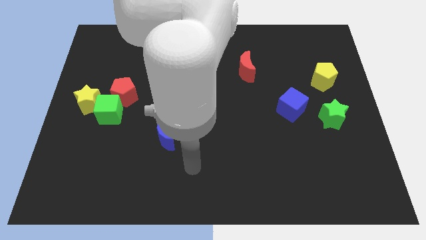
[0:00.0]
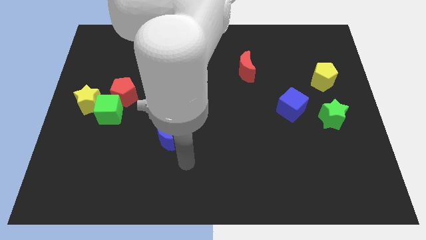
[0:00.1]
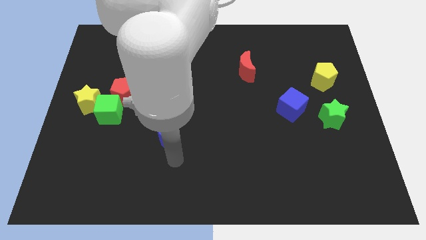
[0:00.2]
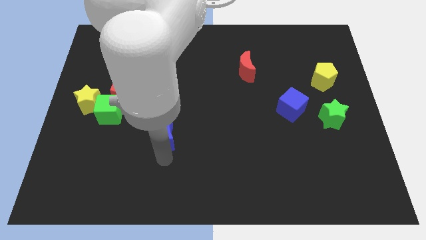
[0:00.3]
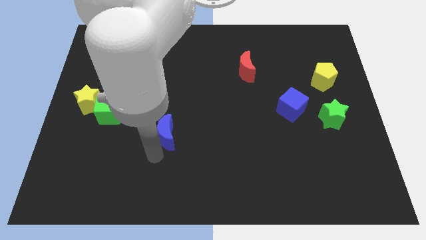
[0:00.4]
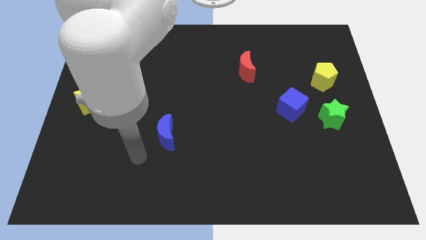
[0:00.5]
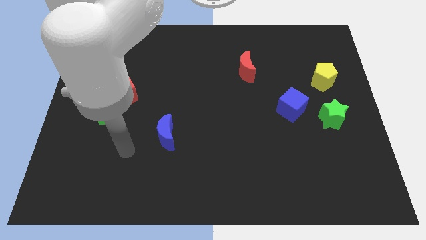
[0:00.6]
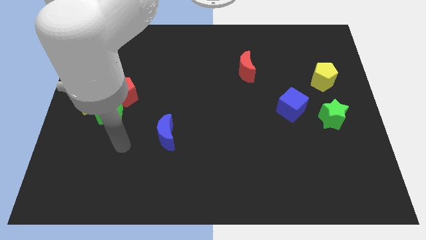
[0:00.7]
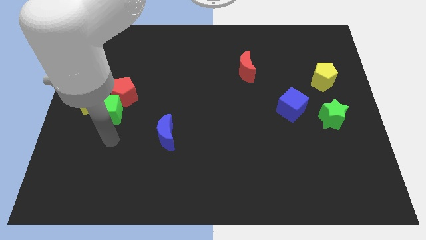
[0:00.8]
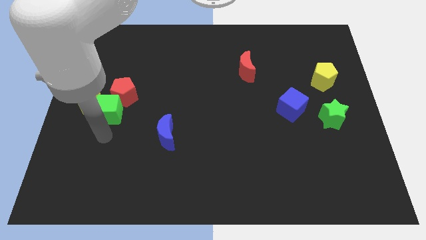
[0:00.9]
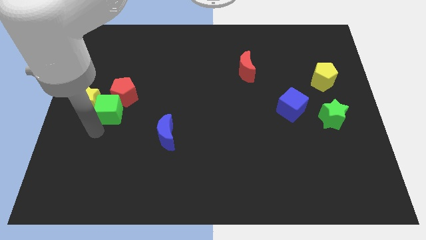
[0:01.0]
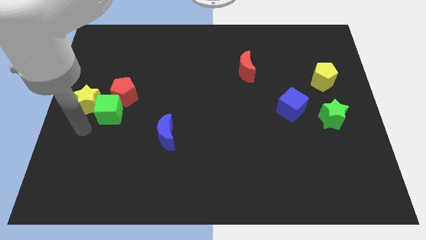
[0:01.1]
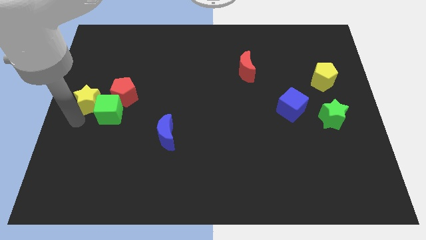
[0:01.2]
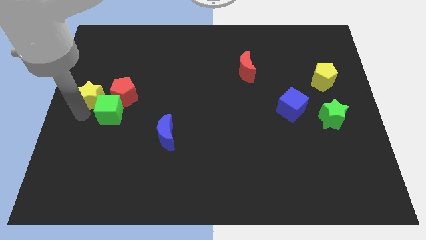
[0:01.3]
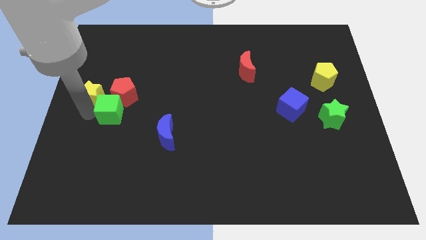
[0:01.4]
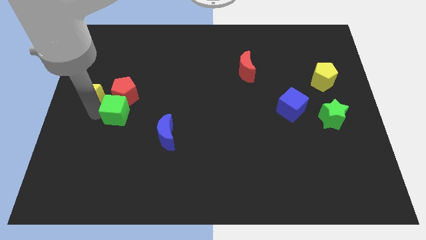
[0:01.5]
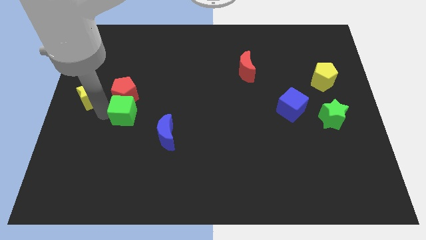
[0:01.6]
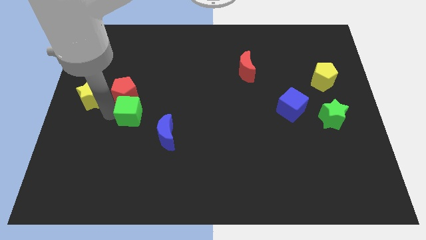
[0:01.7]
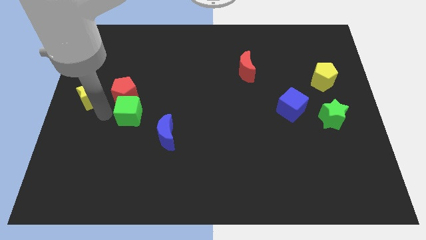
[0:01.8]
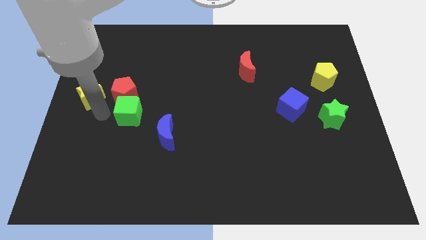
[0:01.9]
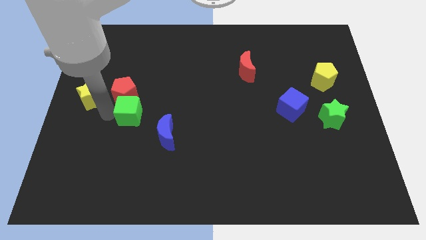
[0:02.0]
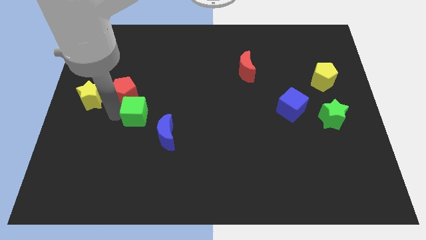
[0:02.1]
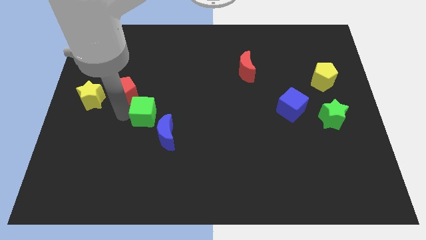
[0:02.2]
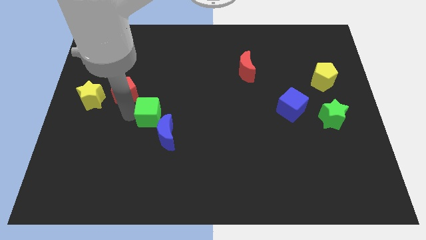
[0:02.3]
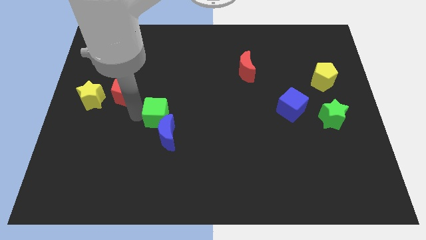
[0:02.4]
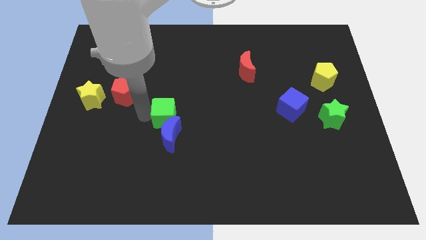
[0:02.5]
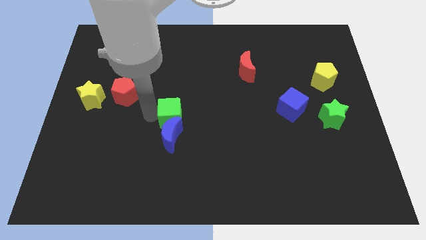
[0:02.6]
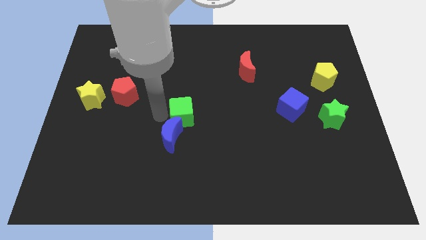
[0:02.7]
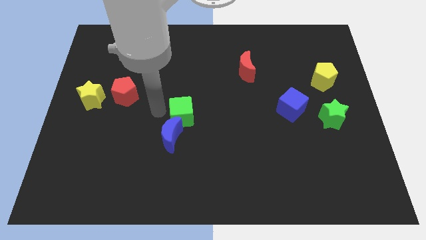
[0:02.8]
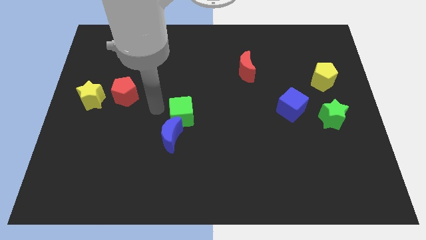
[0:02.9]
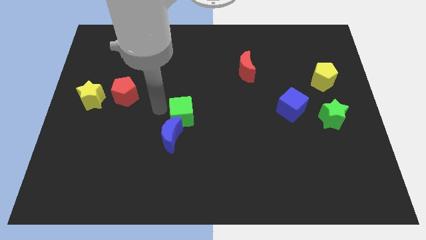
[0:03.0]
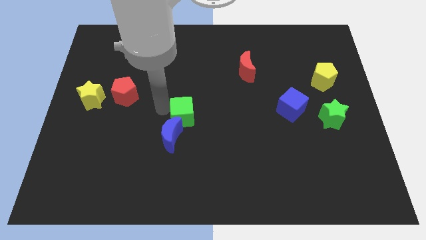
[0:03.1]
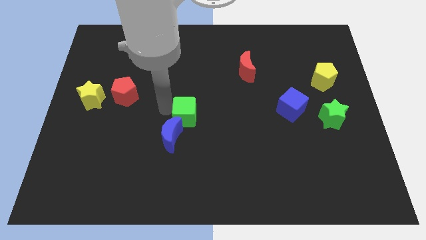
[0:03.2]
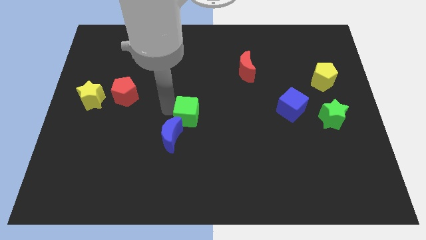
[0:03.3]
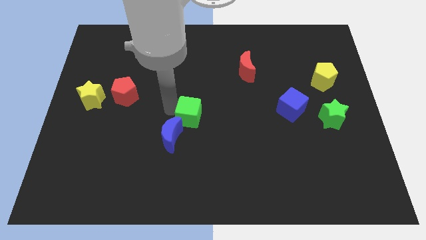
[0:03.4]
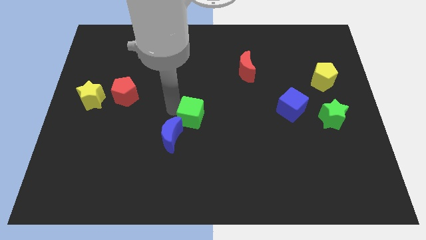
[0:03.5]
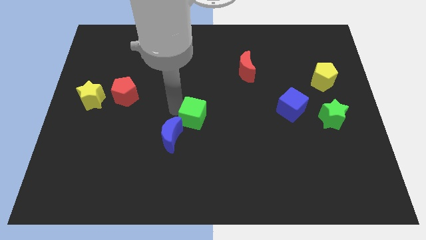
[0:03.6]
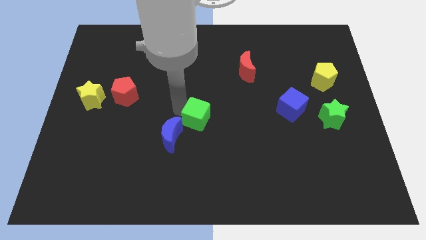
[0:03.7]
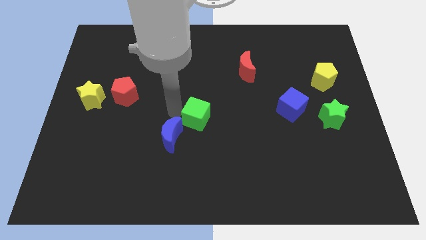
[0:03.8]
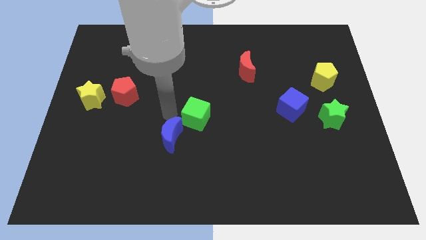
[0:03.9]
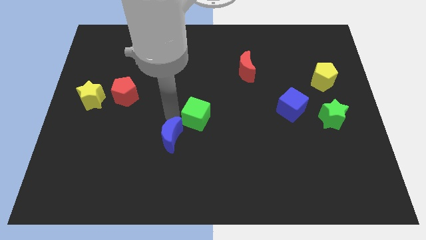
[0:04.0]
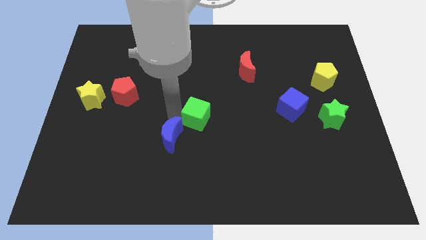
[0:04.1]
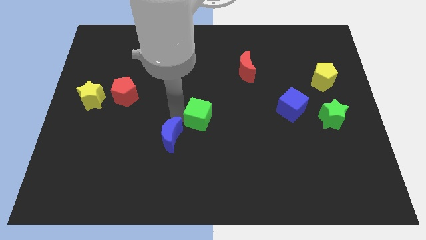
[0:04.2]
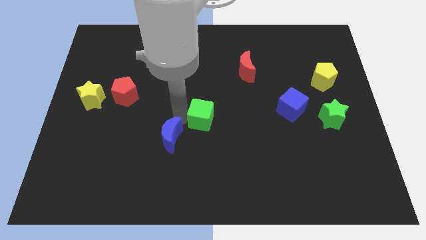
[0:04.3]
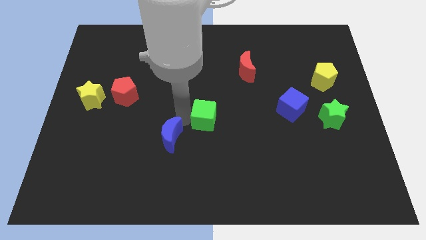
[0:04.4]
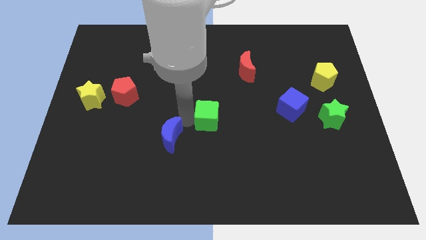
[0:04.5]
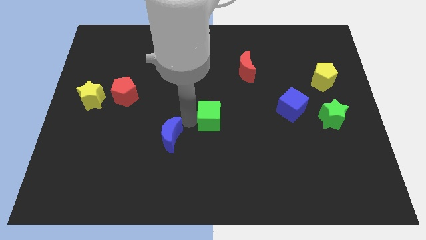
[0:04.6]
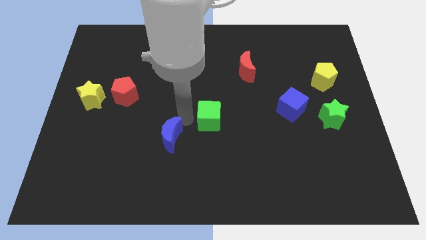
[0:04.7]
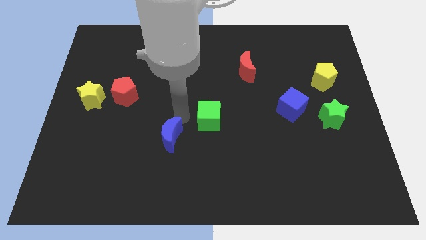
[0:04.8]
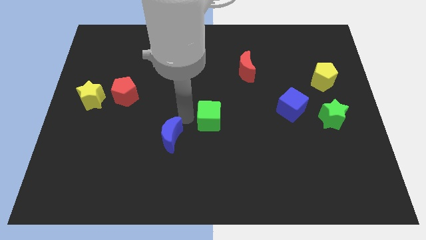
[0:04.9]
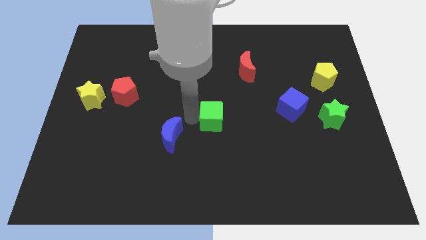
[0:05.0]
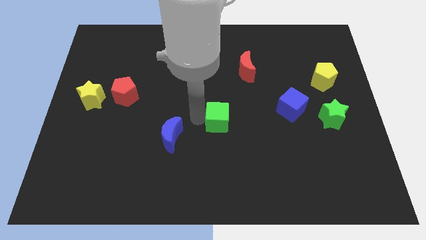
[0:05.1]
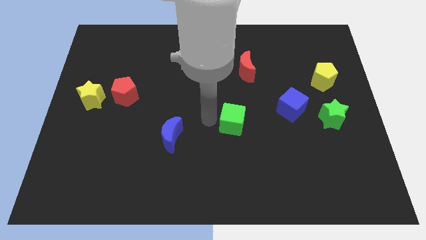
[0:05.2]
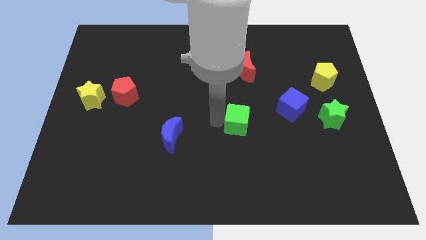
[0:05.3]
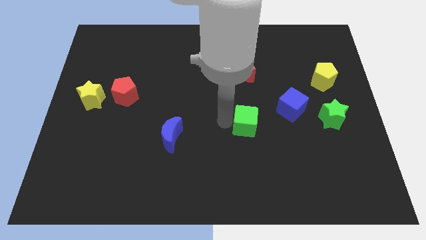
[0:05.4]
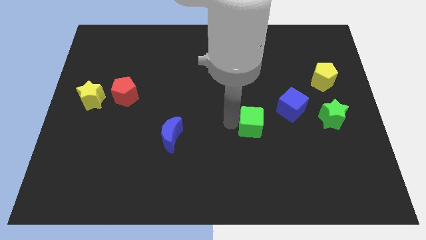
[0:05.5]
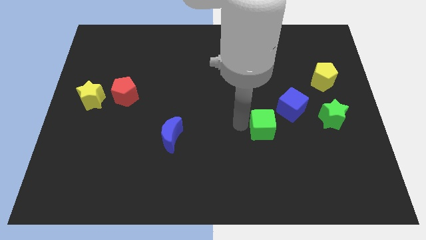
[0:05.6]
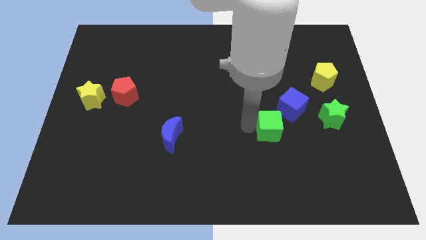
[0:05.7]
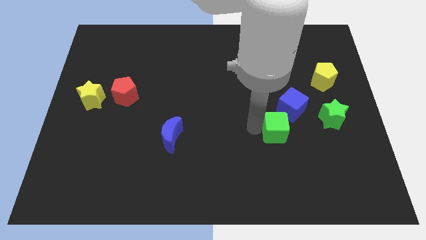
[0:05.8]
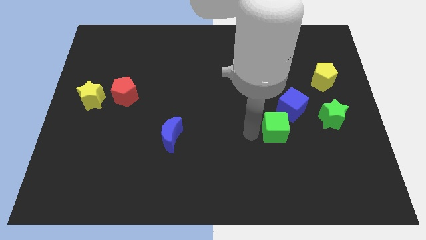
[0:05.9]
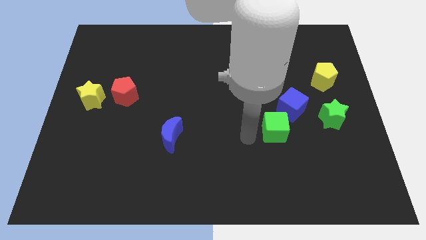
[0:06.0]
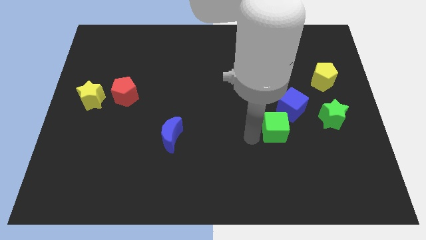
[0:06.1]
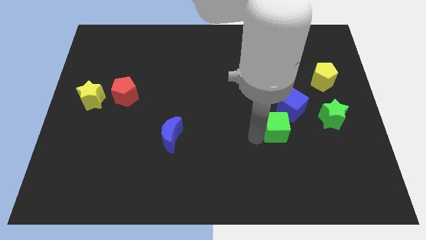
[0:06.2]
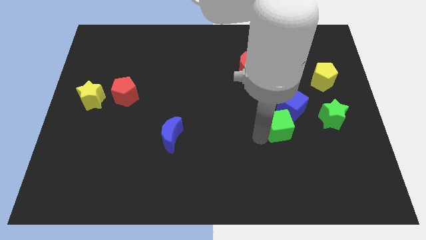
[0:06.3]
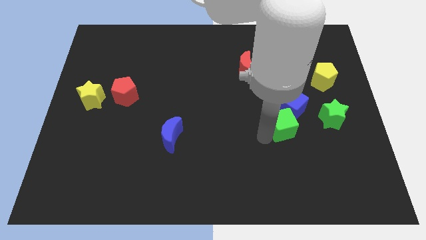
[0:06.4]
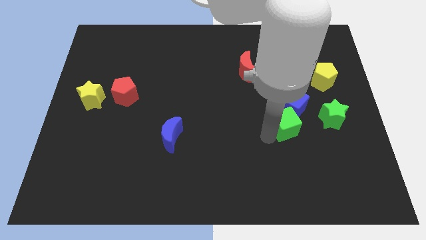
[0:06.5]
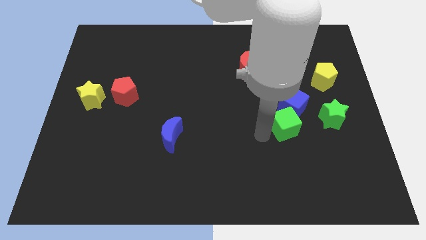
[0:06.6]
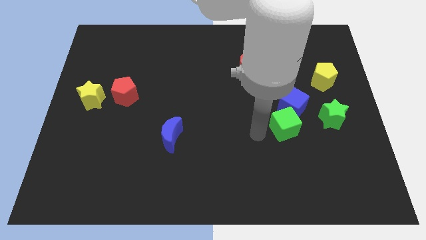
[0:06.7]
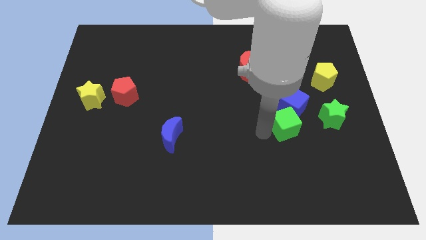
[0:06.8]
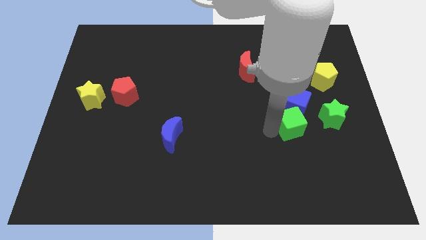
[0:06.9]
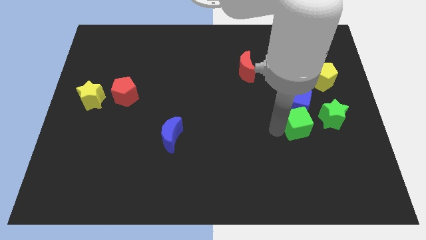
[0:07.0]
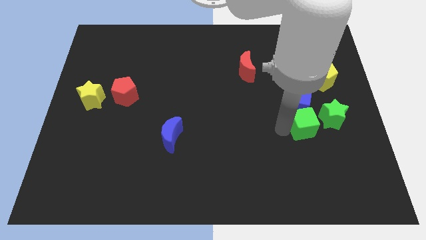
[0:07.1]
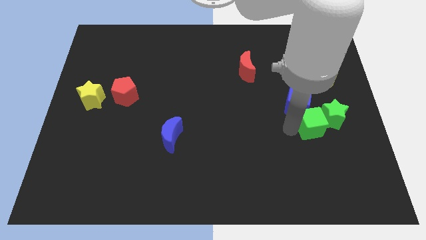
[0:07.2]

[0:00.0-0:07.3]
put the green cube close to the green star

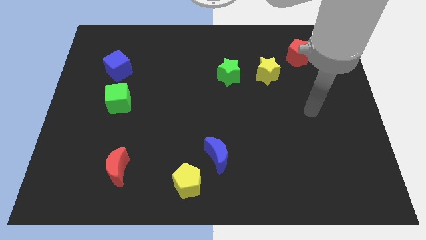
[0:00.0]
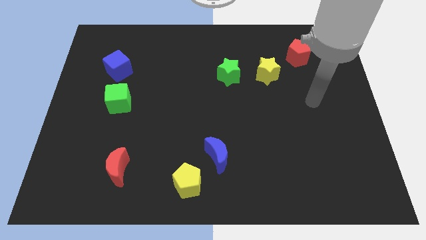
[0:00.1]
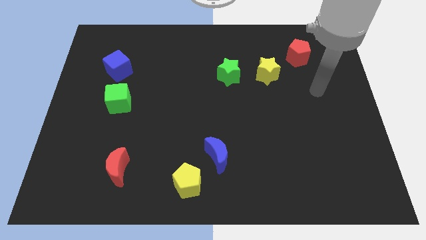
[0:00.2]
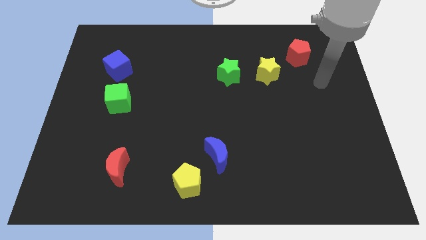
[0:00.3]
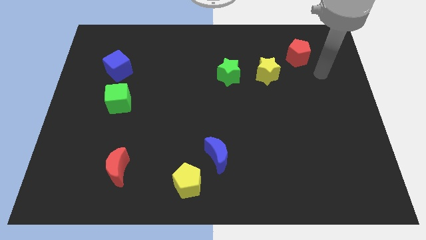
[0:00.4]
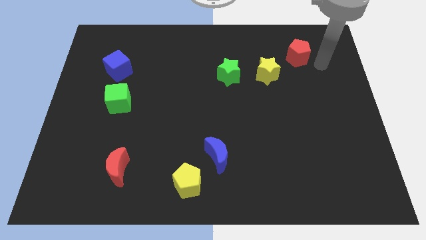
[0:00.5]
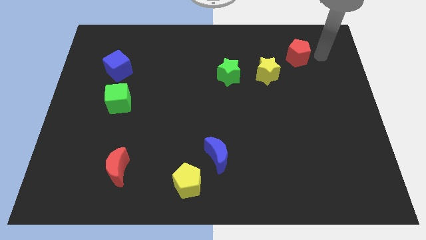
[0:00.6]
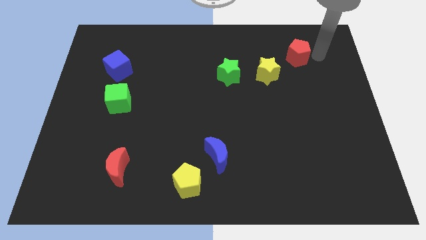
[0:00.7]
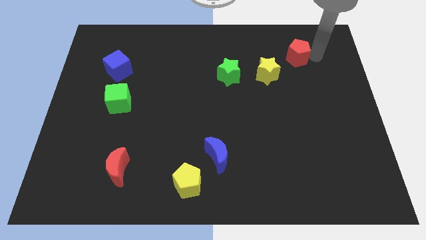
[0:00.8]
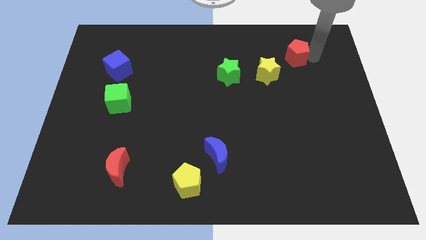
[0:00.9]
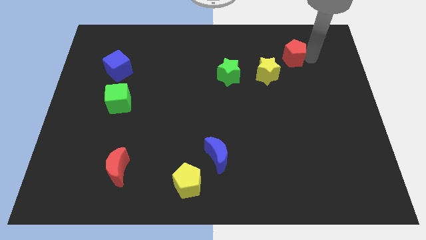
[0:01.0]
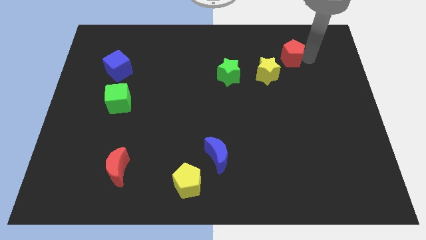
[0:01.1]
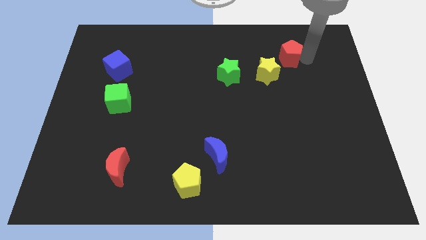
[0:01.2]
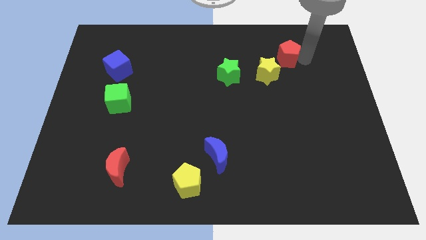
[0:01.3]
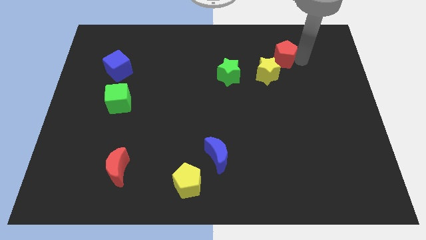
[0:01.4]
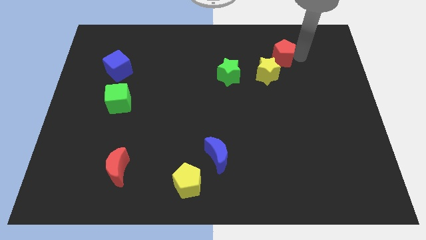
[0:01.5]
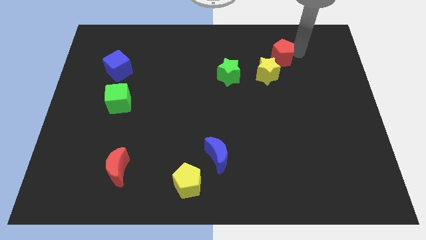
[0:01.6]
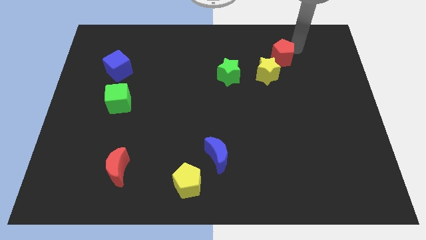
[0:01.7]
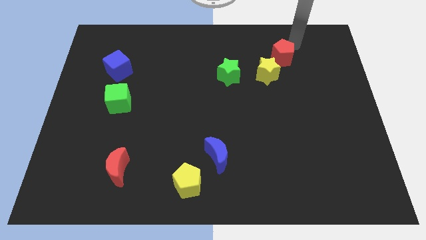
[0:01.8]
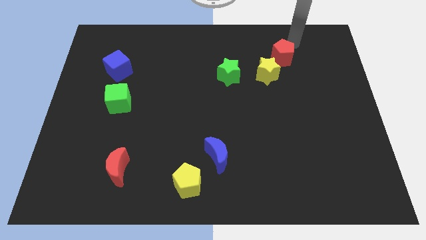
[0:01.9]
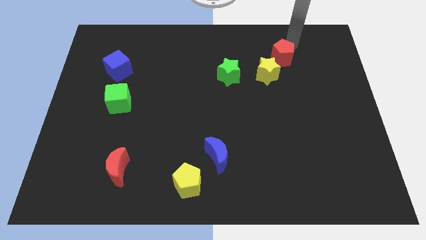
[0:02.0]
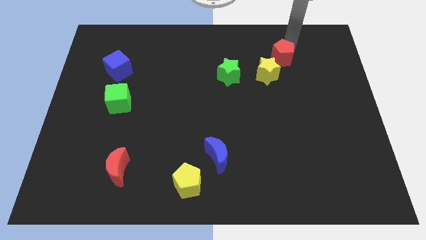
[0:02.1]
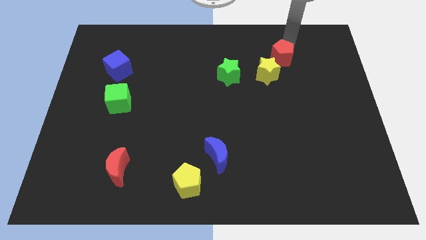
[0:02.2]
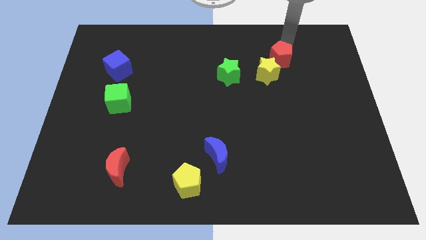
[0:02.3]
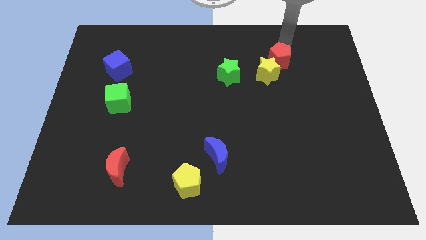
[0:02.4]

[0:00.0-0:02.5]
put the red pentagon next to the yellow star
